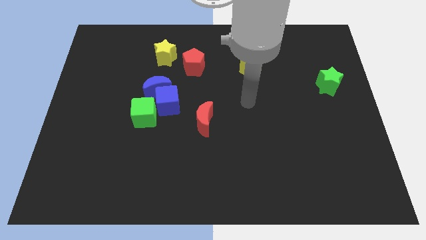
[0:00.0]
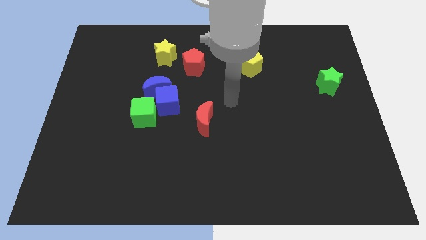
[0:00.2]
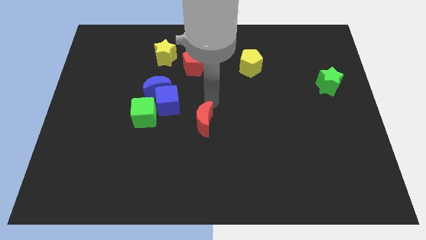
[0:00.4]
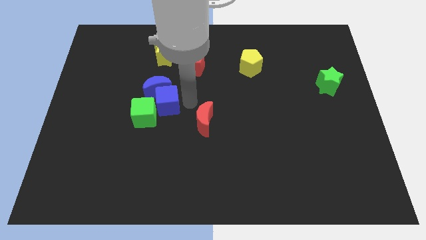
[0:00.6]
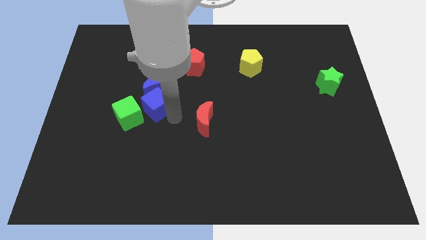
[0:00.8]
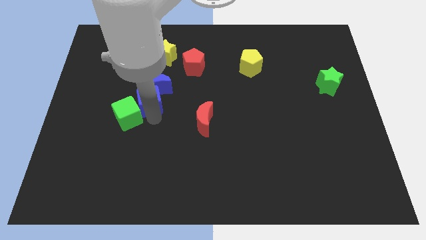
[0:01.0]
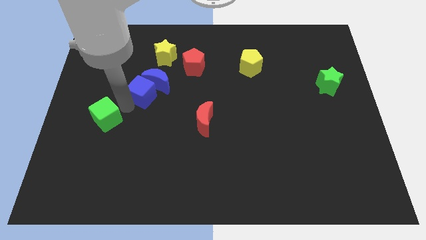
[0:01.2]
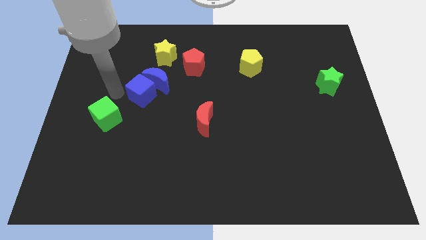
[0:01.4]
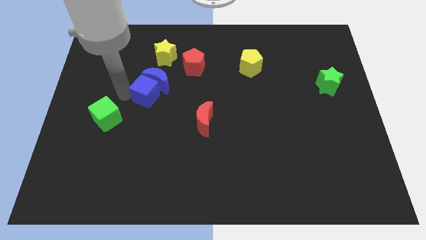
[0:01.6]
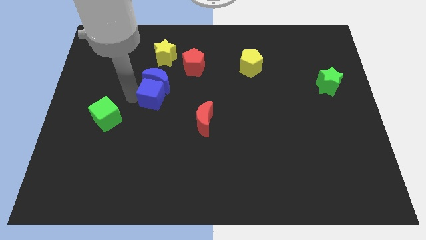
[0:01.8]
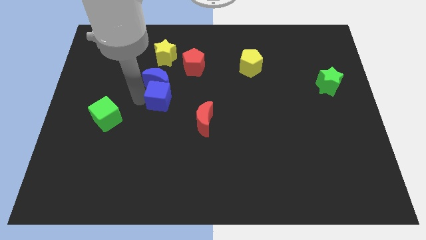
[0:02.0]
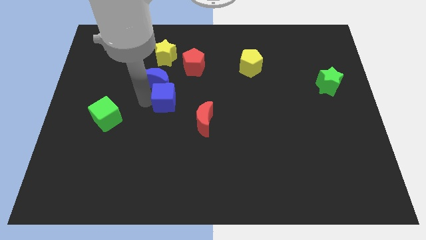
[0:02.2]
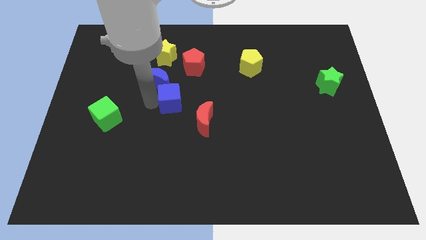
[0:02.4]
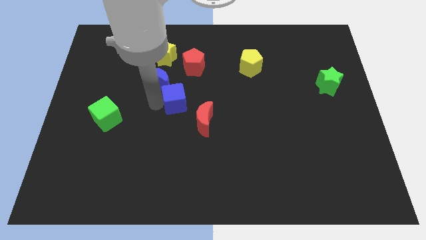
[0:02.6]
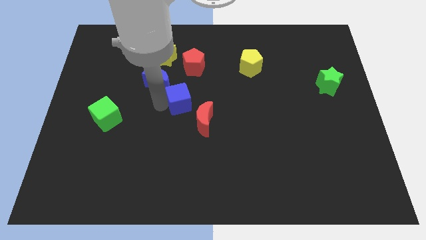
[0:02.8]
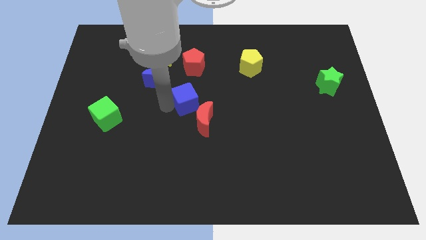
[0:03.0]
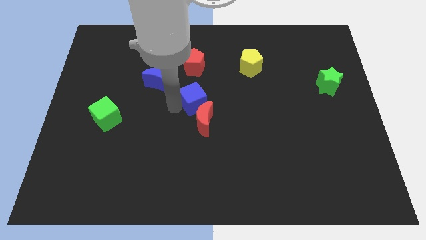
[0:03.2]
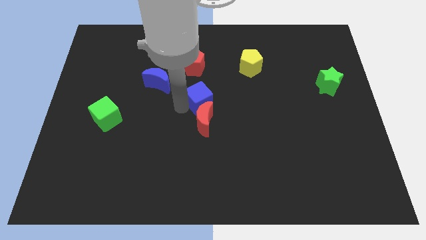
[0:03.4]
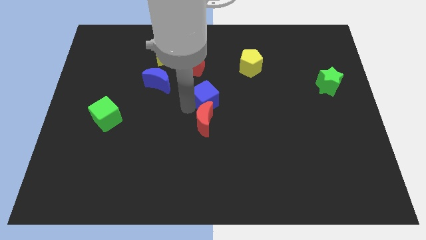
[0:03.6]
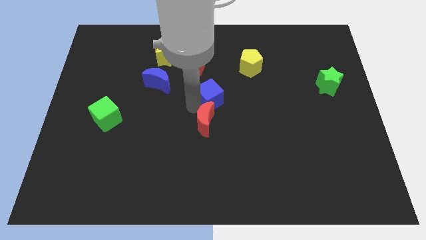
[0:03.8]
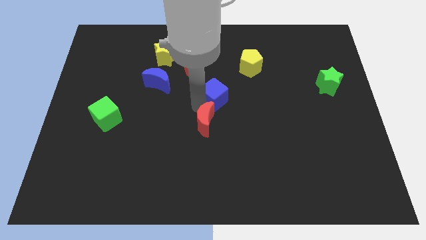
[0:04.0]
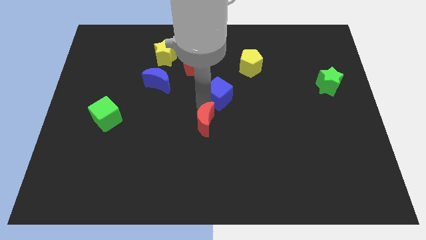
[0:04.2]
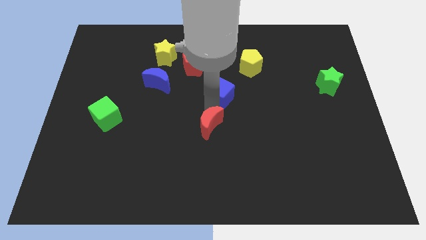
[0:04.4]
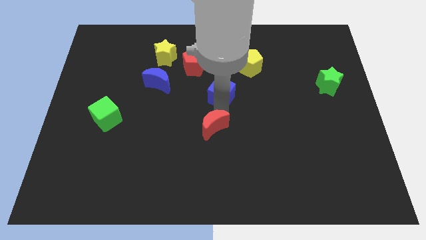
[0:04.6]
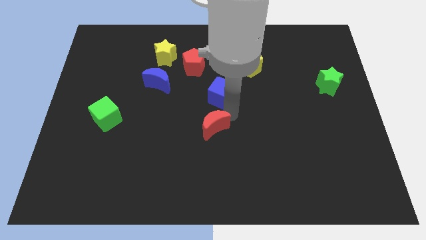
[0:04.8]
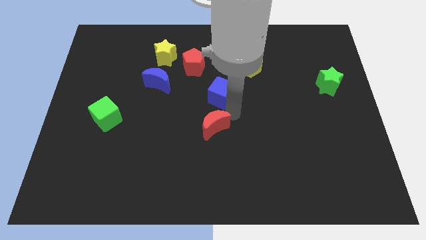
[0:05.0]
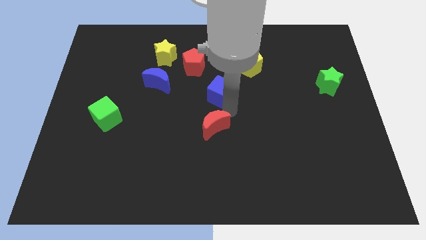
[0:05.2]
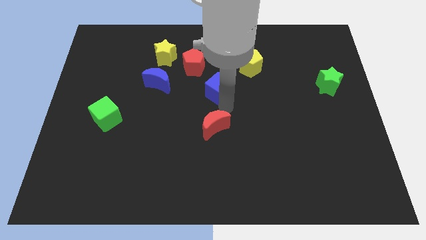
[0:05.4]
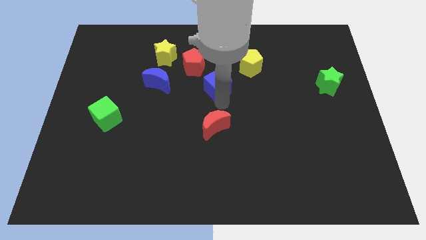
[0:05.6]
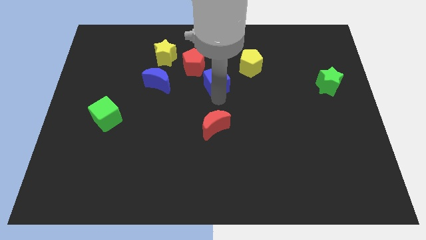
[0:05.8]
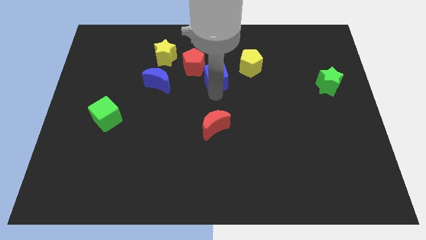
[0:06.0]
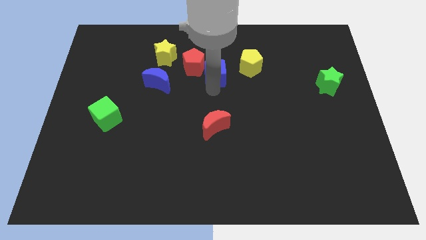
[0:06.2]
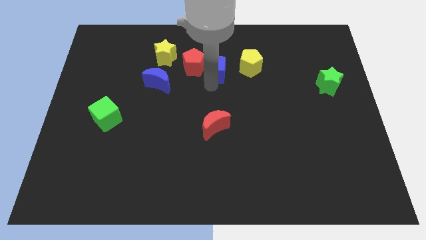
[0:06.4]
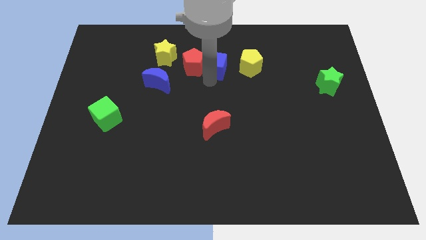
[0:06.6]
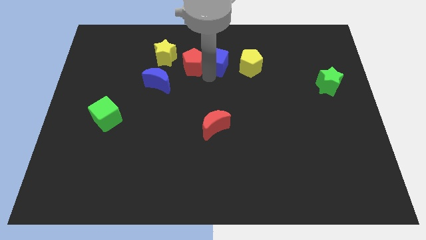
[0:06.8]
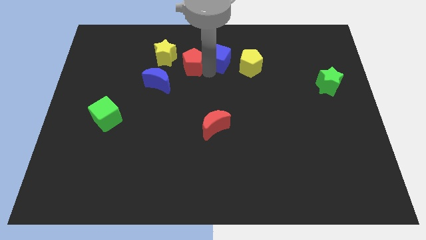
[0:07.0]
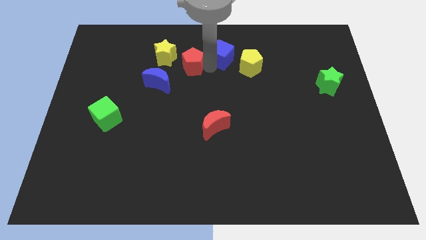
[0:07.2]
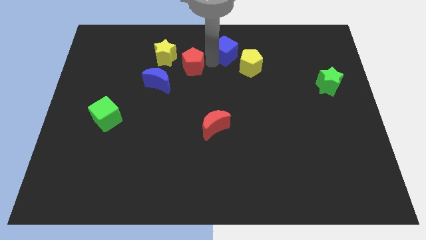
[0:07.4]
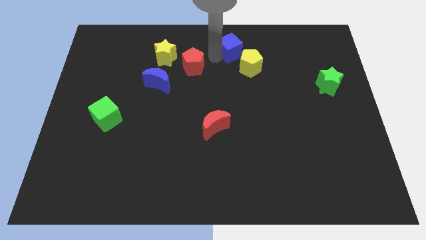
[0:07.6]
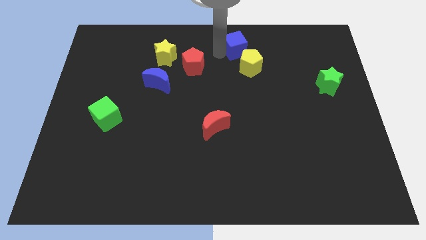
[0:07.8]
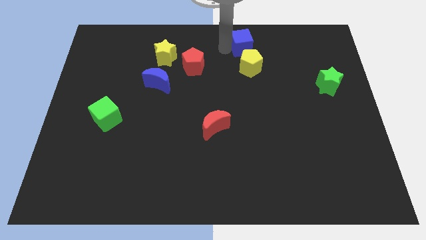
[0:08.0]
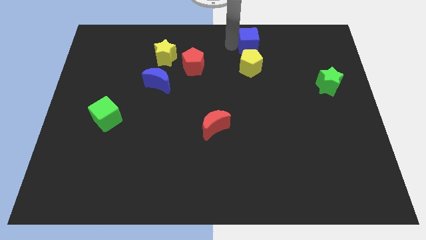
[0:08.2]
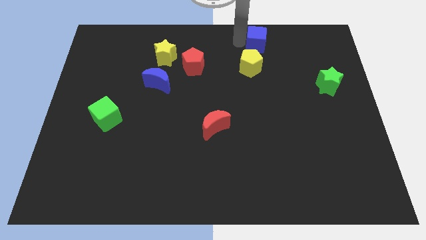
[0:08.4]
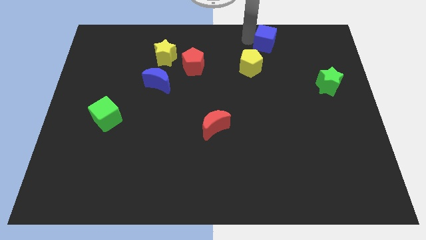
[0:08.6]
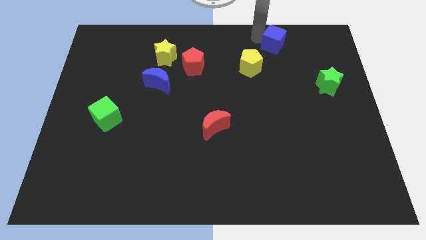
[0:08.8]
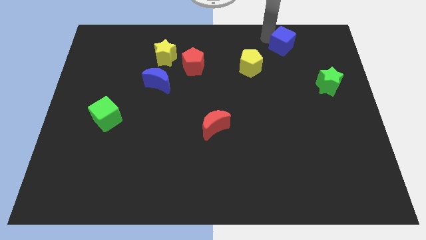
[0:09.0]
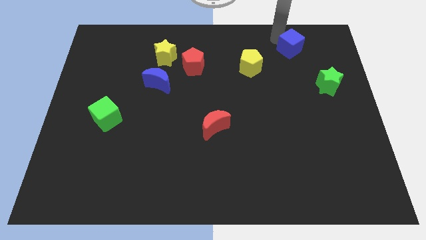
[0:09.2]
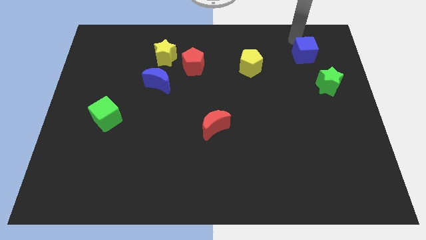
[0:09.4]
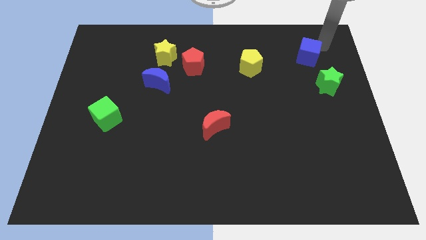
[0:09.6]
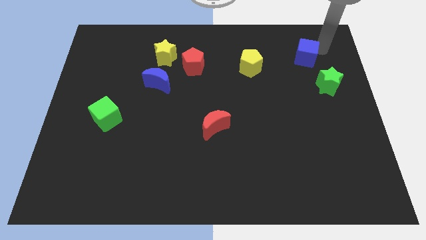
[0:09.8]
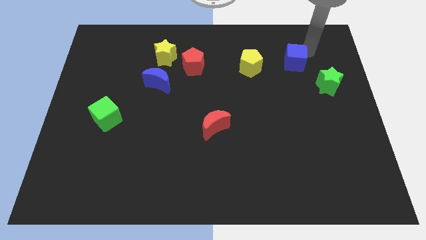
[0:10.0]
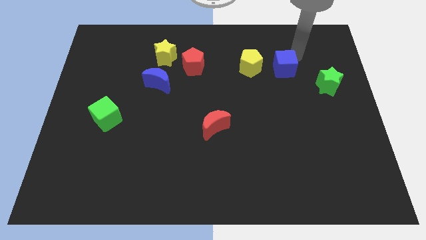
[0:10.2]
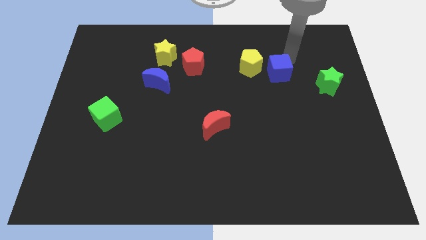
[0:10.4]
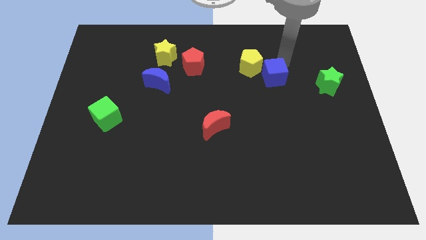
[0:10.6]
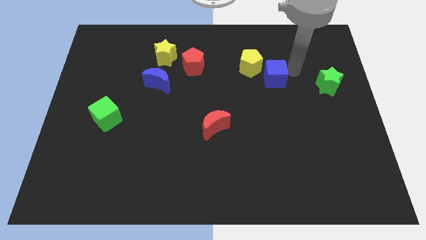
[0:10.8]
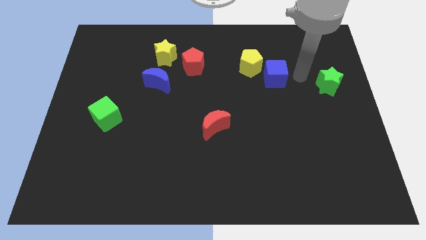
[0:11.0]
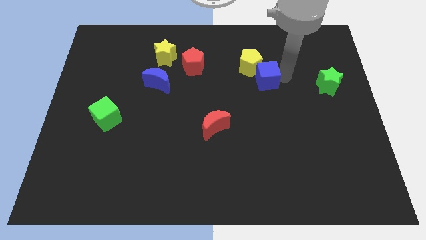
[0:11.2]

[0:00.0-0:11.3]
put the blue cube towards the yellow pentagon

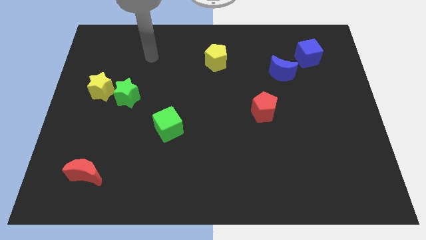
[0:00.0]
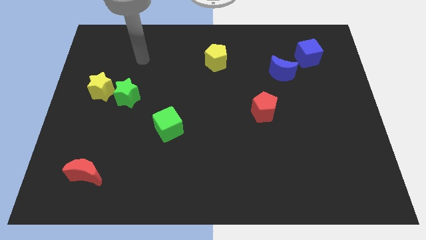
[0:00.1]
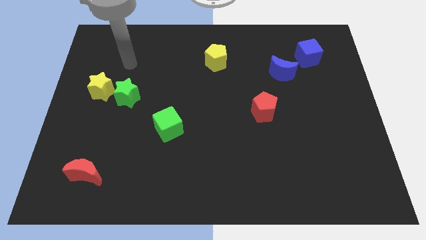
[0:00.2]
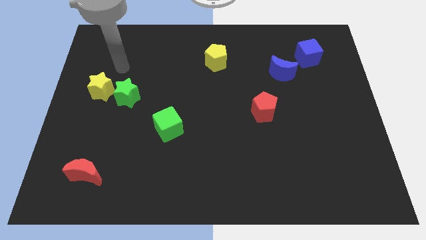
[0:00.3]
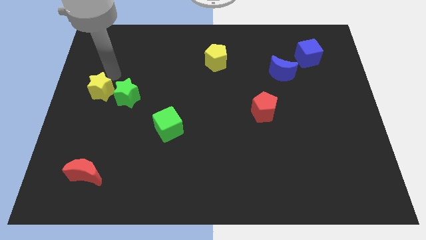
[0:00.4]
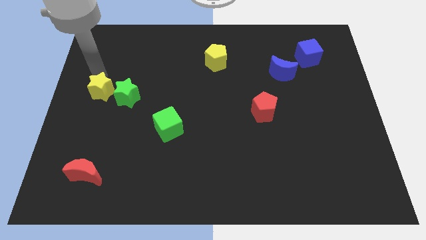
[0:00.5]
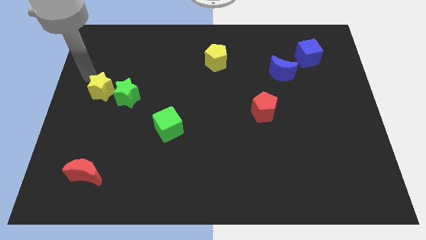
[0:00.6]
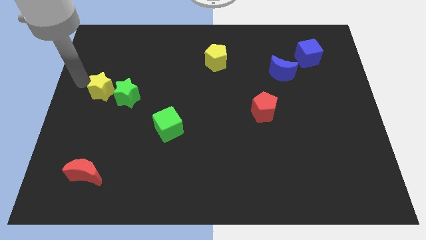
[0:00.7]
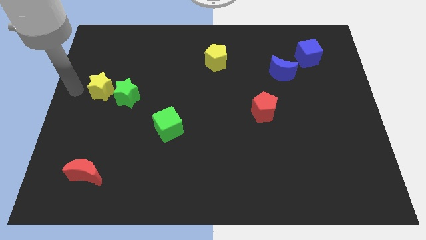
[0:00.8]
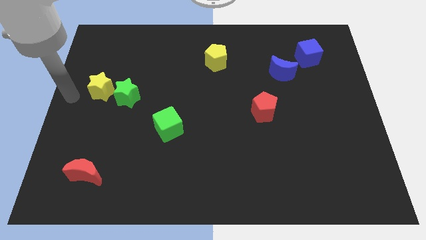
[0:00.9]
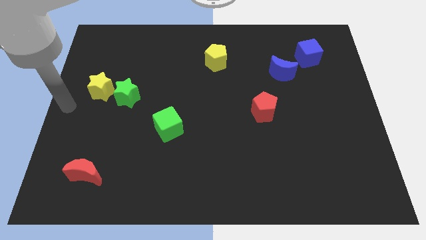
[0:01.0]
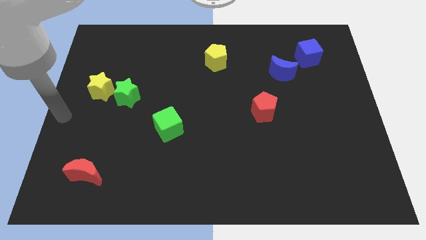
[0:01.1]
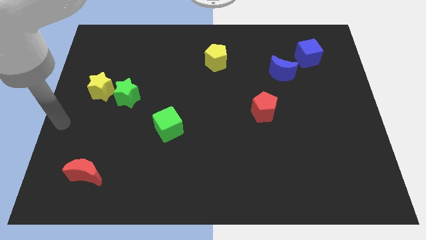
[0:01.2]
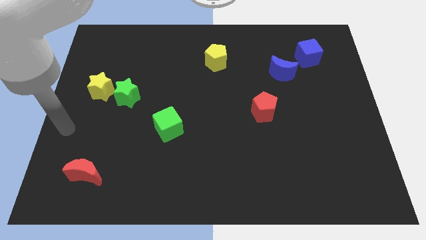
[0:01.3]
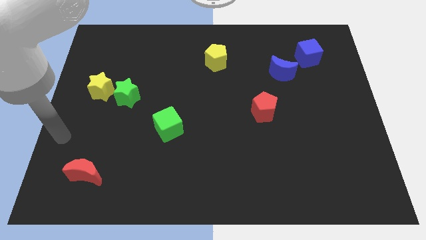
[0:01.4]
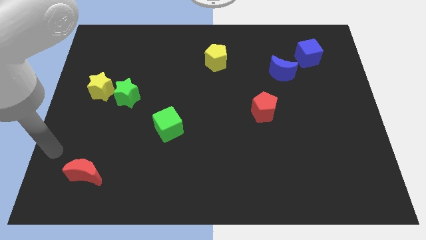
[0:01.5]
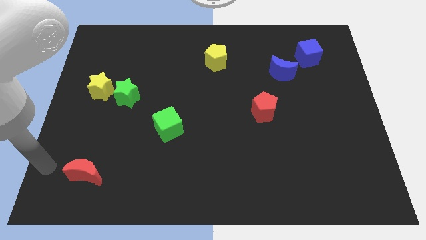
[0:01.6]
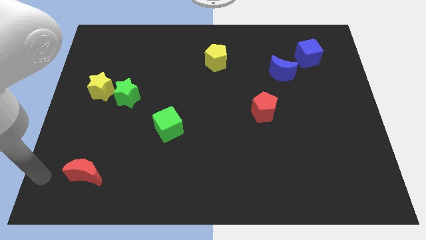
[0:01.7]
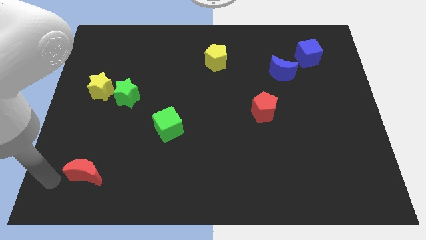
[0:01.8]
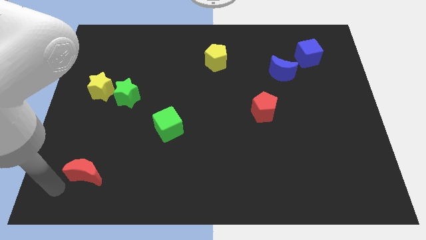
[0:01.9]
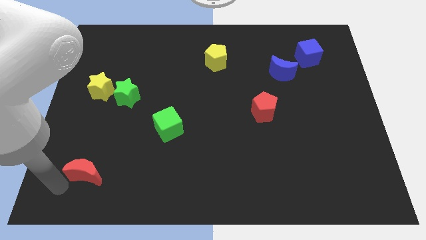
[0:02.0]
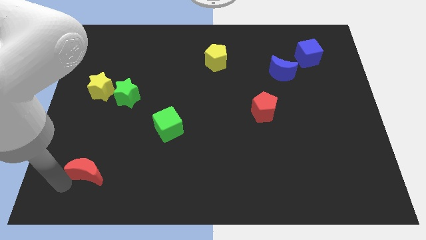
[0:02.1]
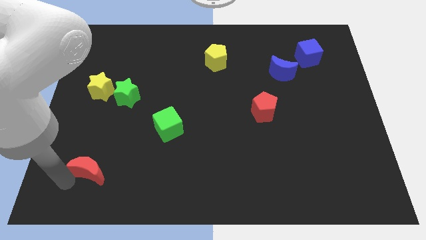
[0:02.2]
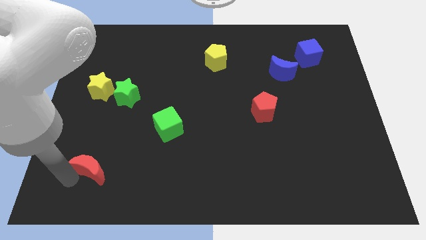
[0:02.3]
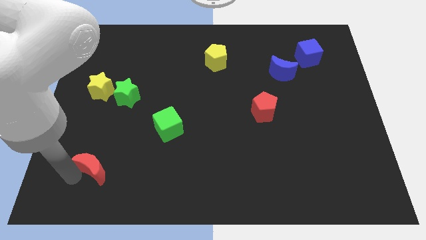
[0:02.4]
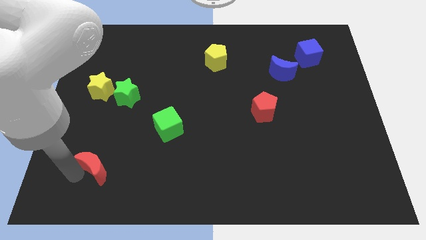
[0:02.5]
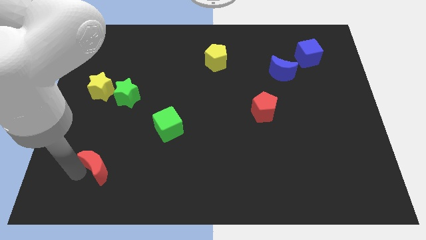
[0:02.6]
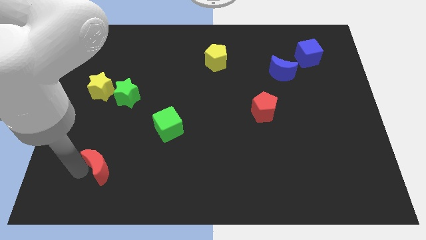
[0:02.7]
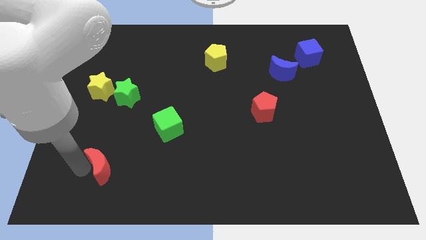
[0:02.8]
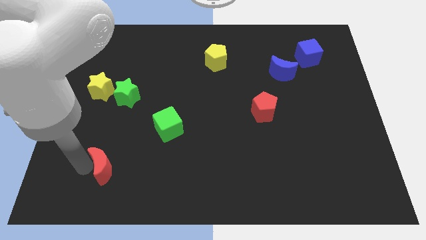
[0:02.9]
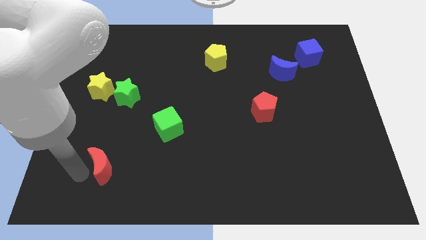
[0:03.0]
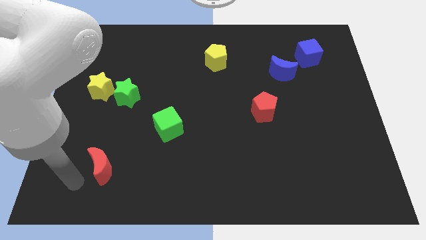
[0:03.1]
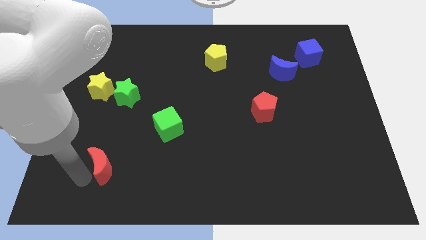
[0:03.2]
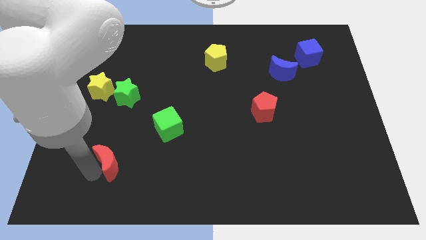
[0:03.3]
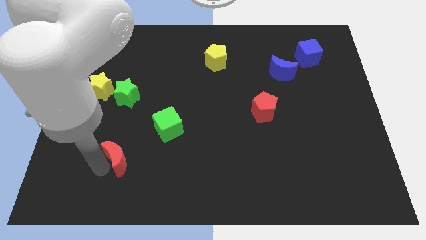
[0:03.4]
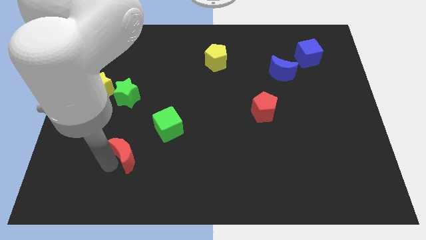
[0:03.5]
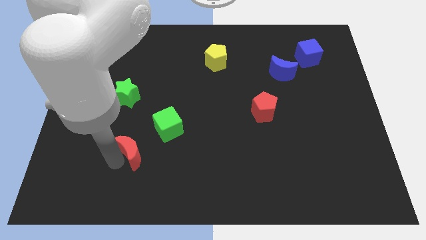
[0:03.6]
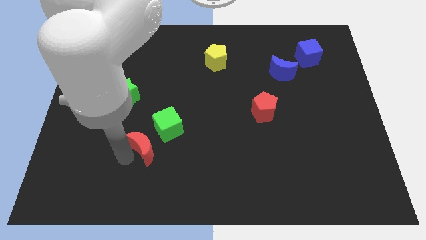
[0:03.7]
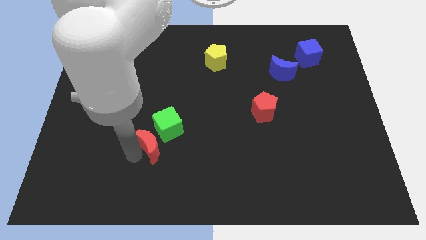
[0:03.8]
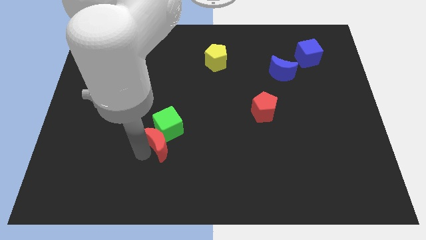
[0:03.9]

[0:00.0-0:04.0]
move the red moon close to the green cube
